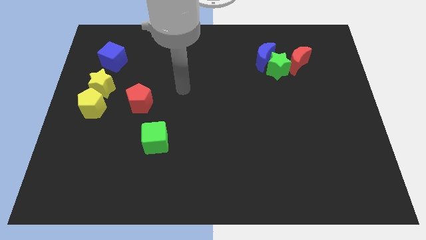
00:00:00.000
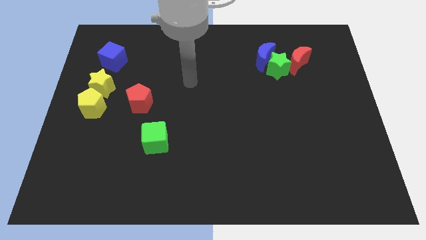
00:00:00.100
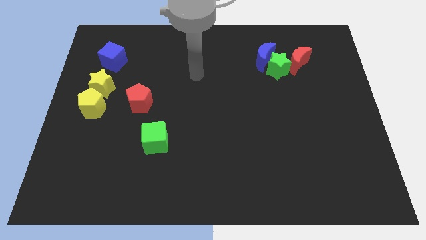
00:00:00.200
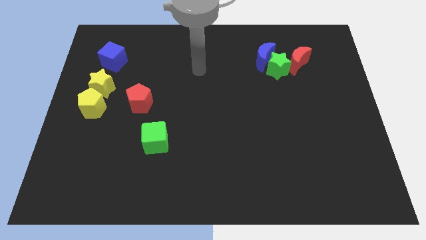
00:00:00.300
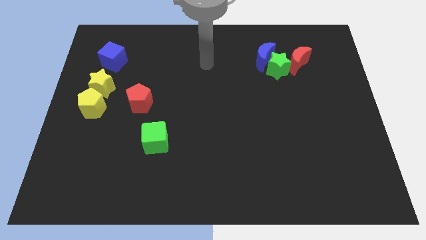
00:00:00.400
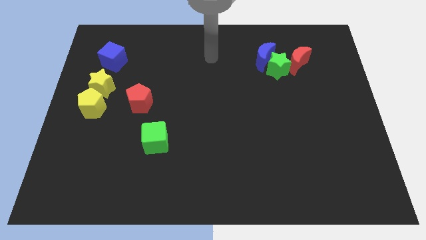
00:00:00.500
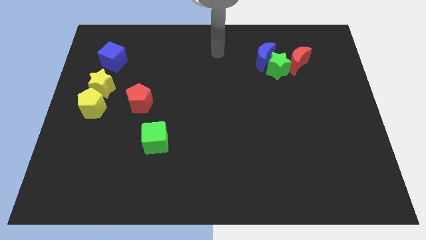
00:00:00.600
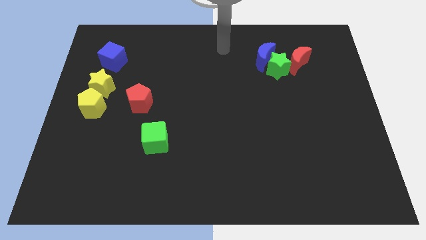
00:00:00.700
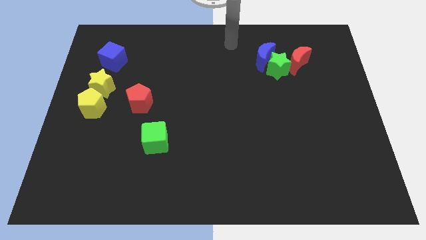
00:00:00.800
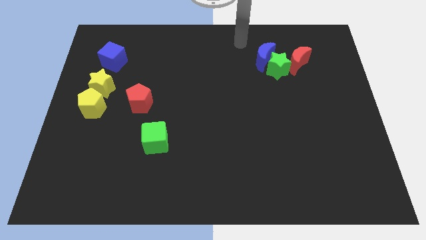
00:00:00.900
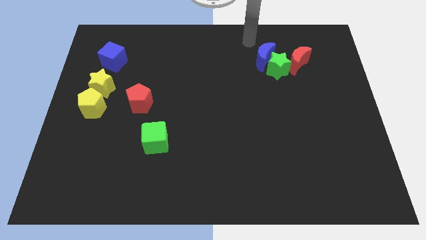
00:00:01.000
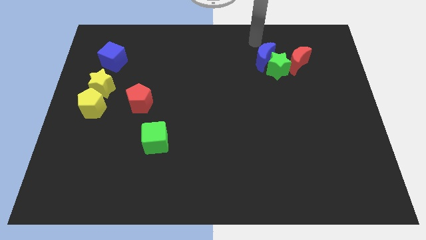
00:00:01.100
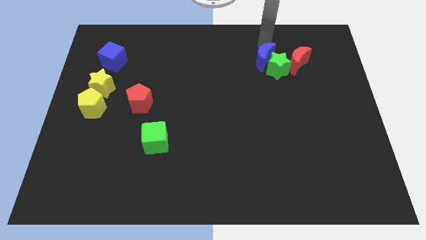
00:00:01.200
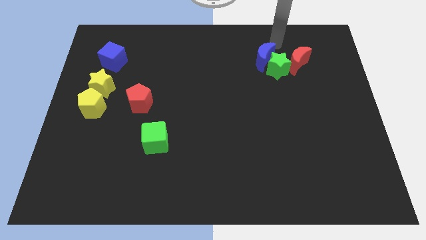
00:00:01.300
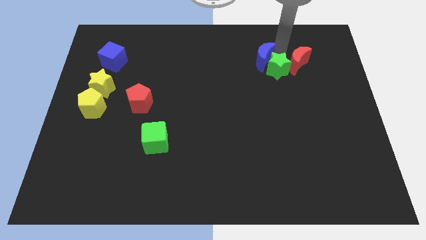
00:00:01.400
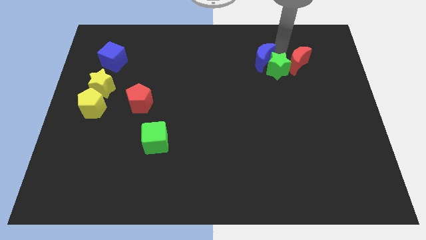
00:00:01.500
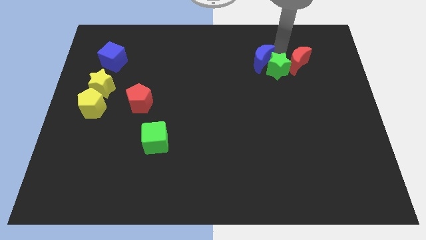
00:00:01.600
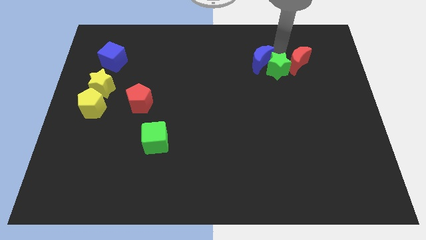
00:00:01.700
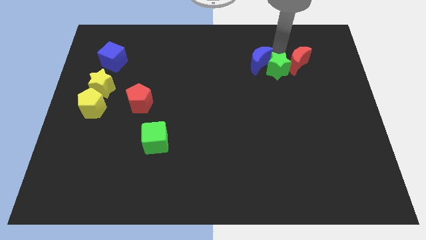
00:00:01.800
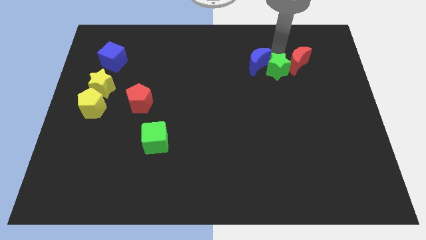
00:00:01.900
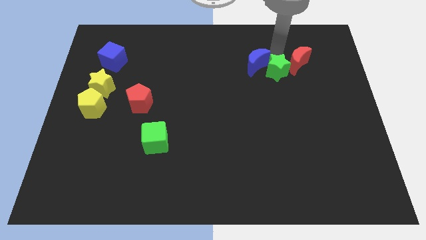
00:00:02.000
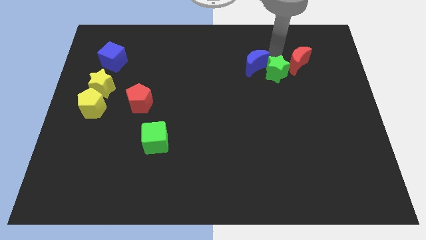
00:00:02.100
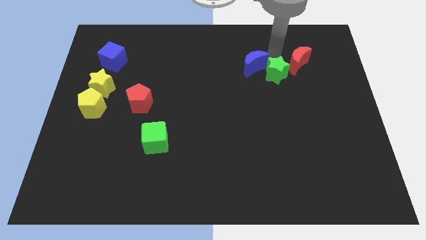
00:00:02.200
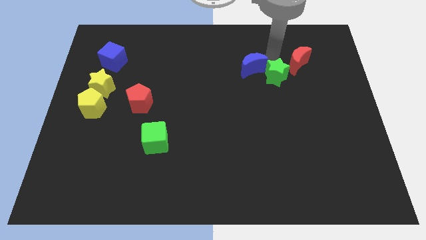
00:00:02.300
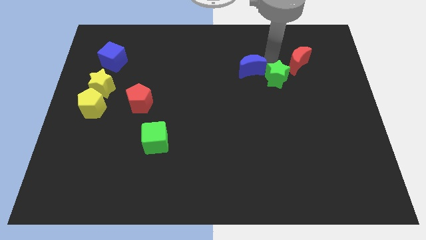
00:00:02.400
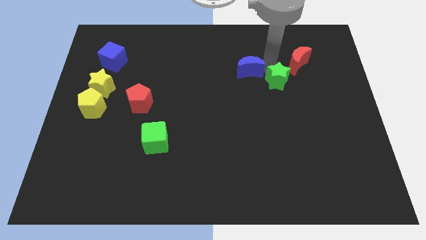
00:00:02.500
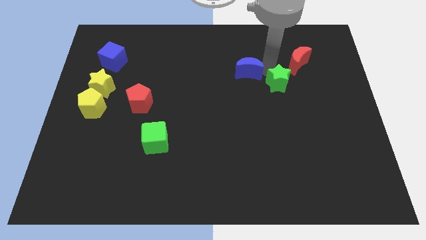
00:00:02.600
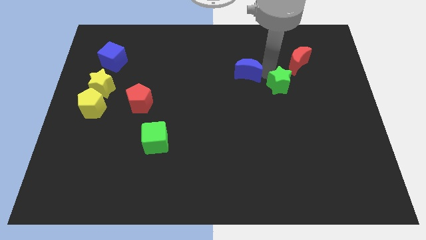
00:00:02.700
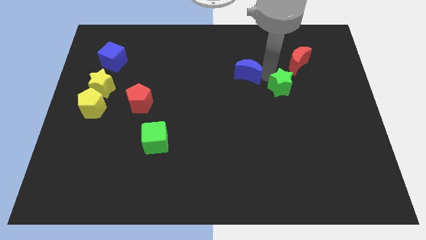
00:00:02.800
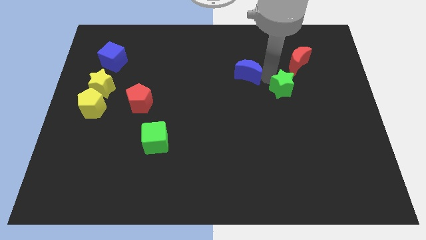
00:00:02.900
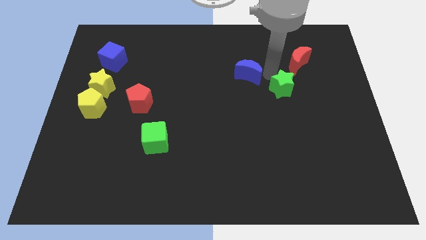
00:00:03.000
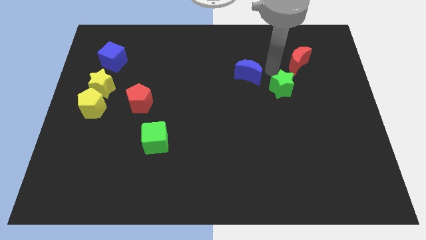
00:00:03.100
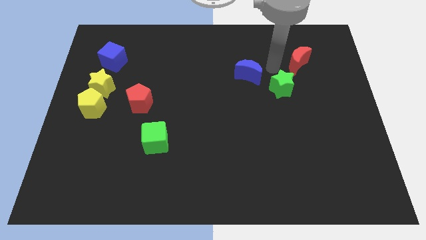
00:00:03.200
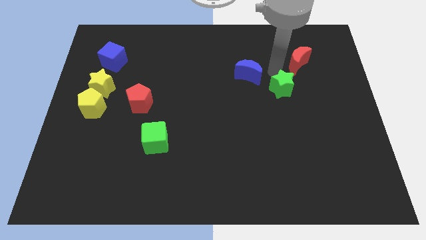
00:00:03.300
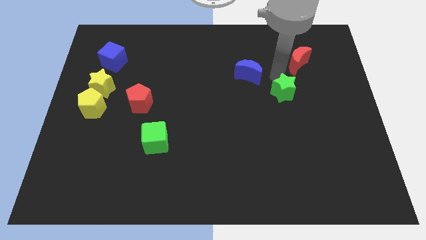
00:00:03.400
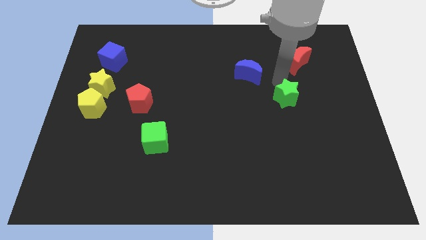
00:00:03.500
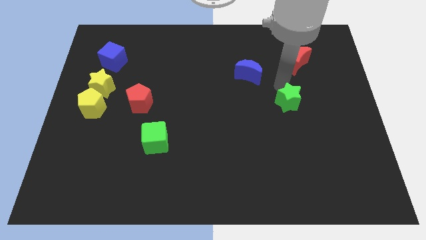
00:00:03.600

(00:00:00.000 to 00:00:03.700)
move the green star away from the blue moon and red moon

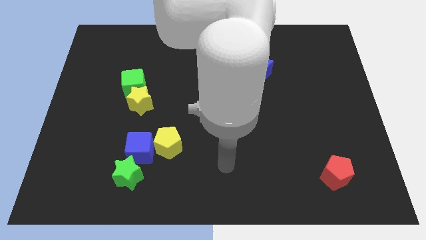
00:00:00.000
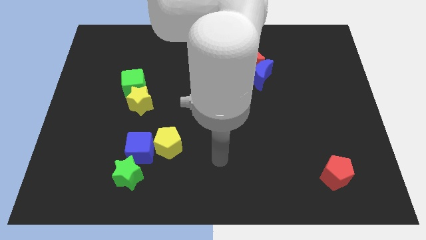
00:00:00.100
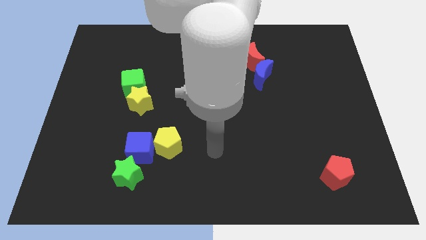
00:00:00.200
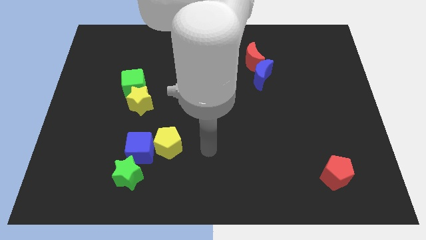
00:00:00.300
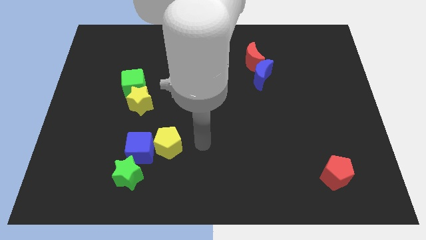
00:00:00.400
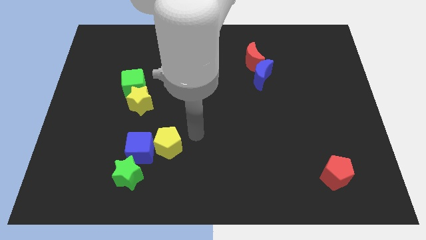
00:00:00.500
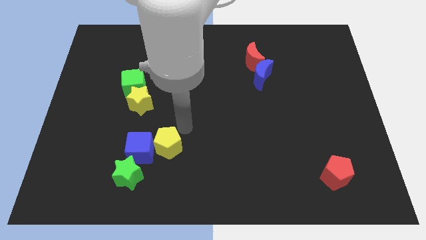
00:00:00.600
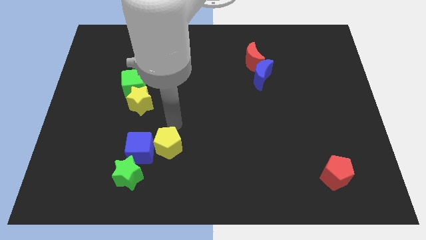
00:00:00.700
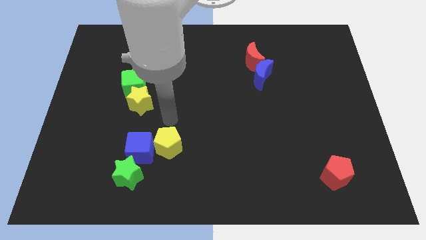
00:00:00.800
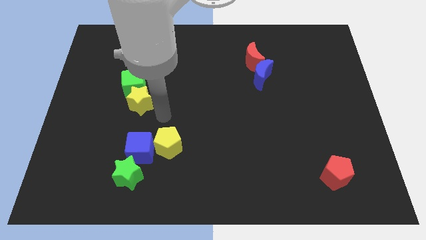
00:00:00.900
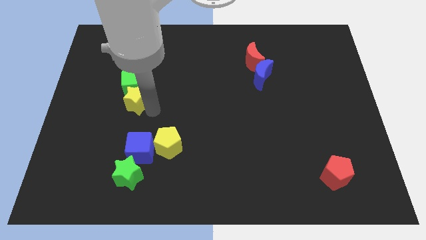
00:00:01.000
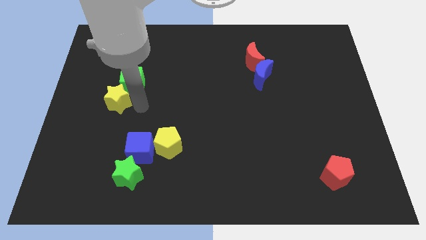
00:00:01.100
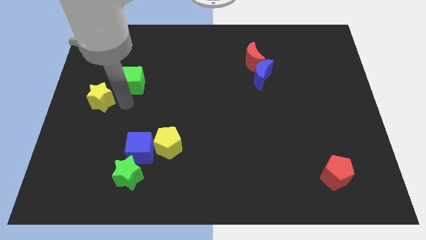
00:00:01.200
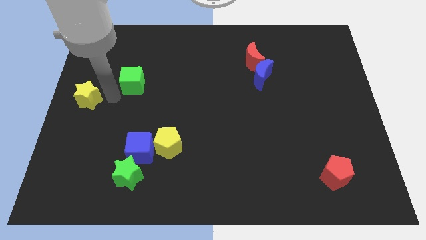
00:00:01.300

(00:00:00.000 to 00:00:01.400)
pull the green cube apart from the yellow star

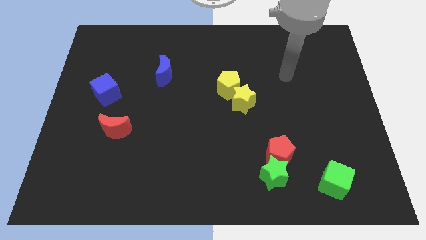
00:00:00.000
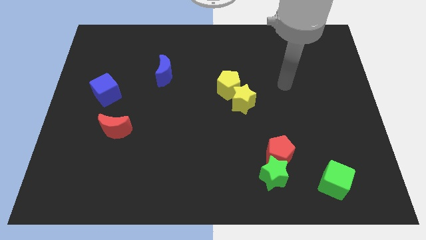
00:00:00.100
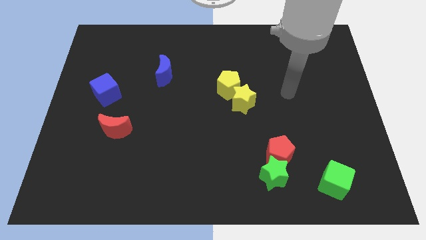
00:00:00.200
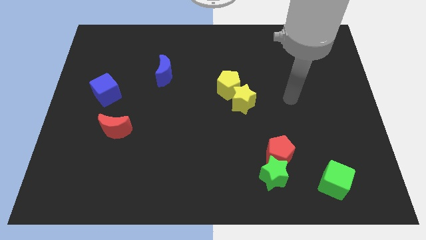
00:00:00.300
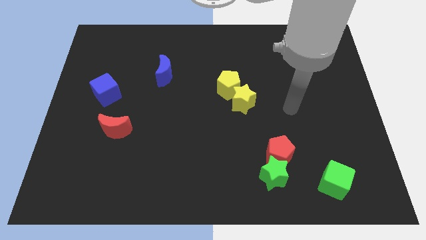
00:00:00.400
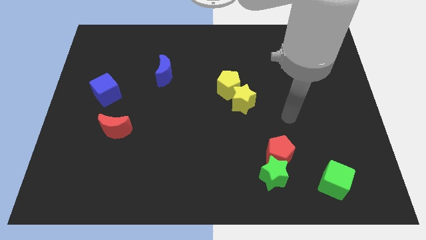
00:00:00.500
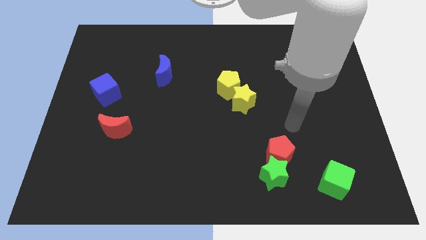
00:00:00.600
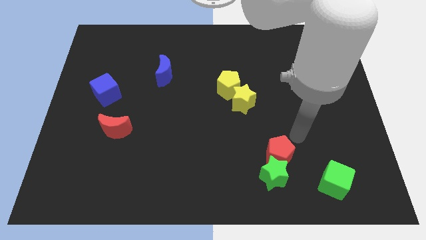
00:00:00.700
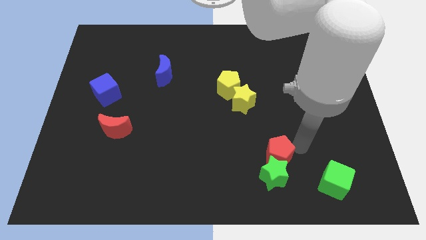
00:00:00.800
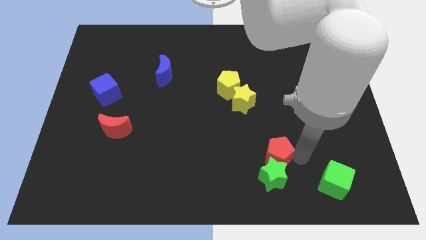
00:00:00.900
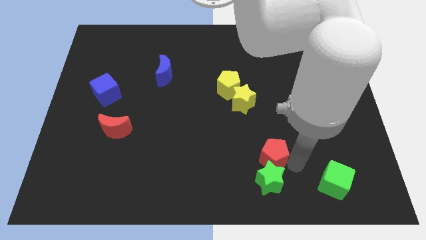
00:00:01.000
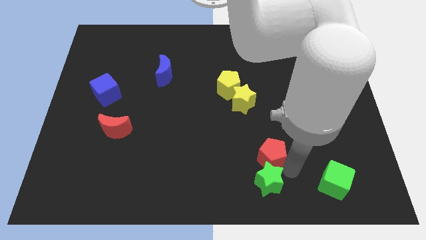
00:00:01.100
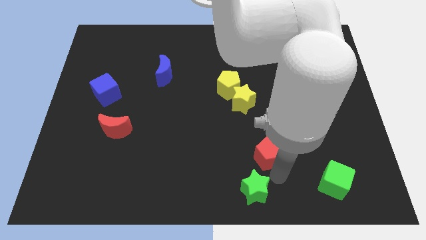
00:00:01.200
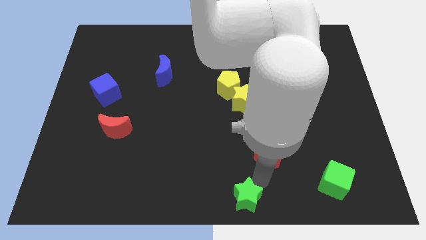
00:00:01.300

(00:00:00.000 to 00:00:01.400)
move the red pentagon away from the green star

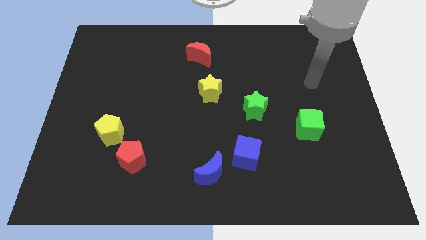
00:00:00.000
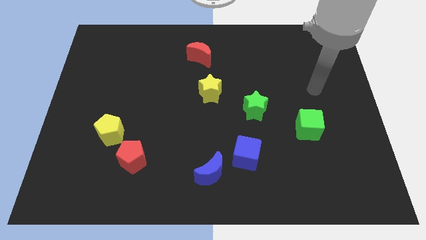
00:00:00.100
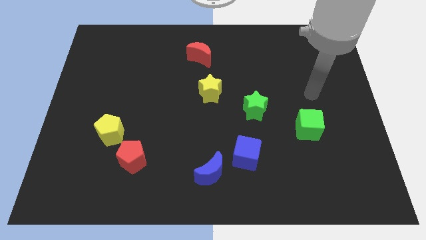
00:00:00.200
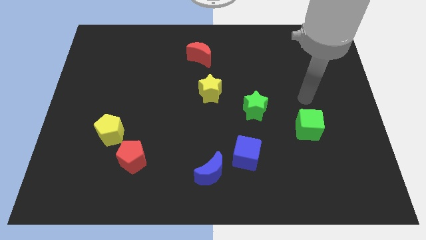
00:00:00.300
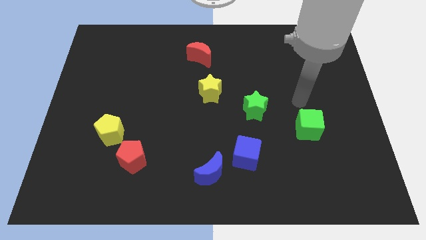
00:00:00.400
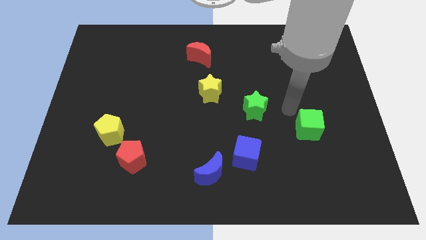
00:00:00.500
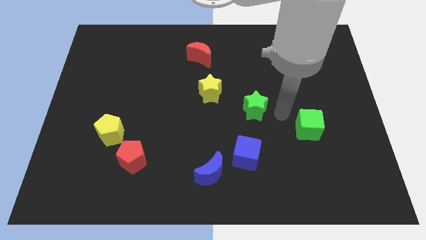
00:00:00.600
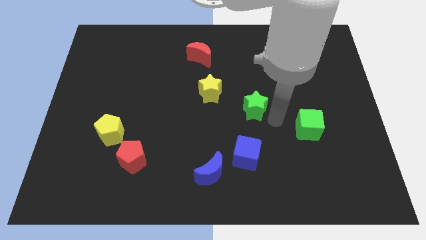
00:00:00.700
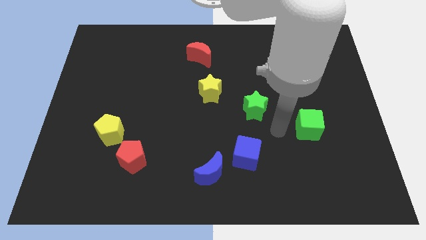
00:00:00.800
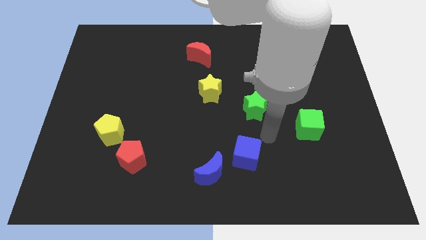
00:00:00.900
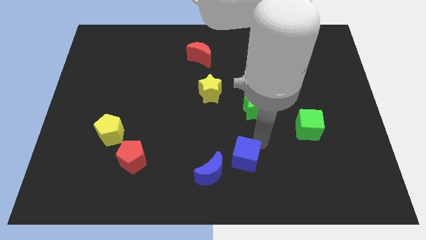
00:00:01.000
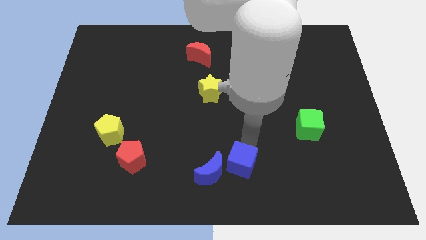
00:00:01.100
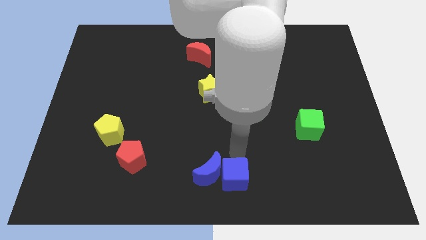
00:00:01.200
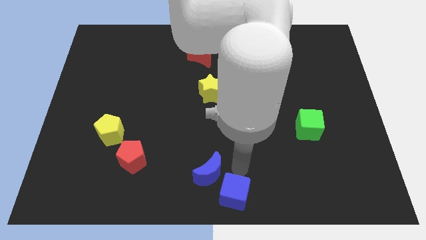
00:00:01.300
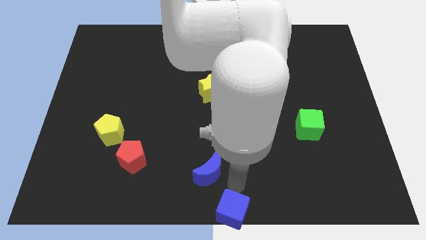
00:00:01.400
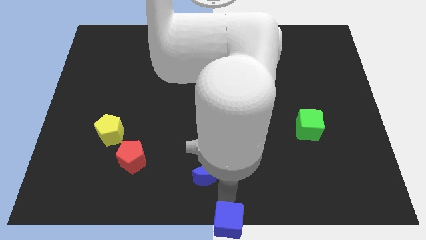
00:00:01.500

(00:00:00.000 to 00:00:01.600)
separate the blue moon from the blue cube

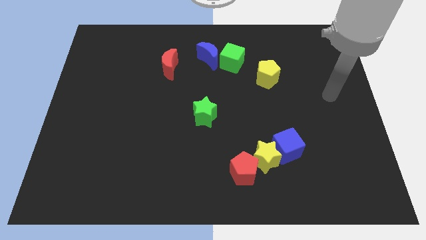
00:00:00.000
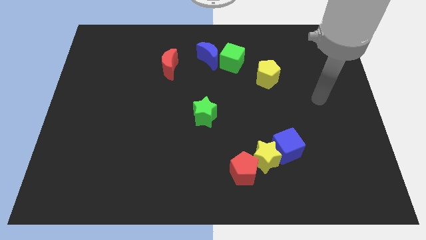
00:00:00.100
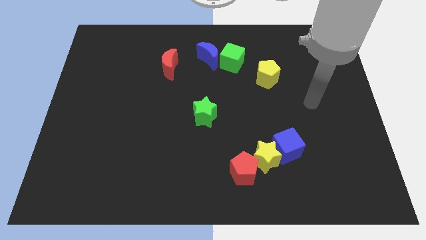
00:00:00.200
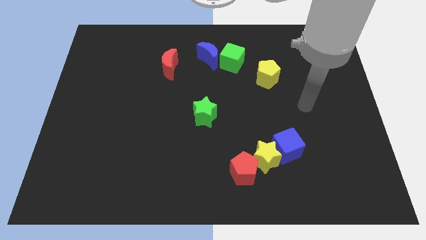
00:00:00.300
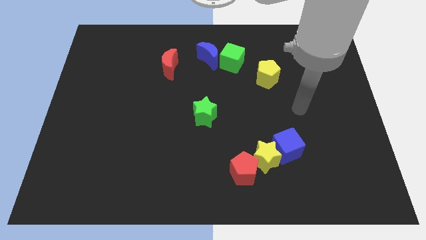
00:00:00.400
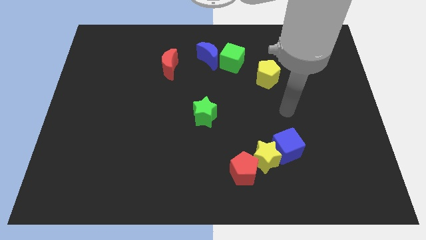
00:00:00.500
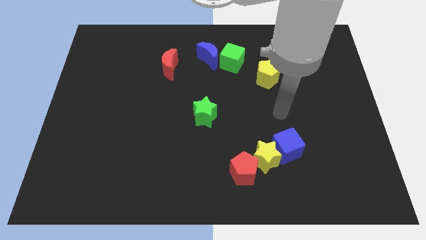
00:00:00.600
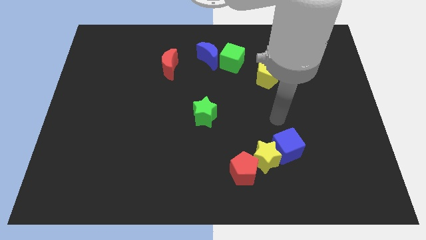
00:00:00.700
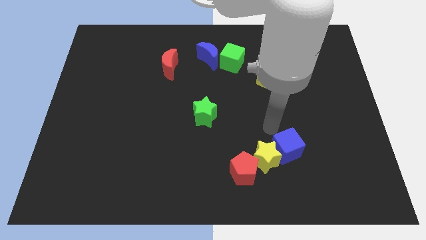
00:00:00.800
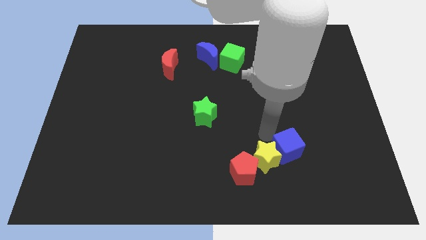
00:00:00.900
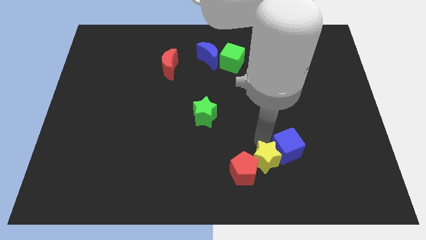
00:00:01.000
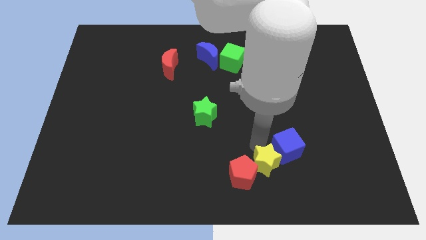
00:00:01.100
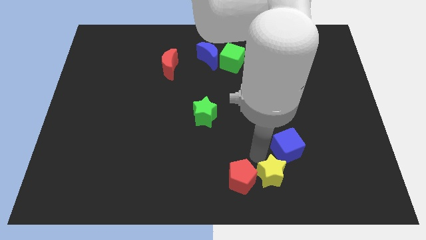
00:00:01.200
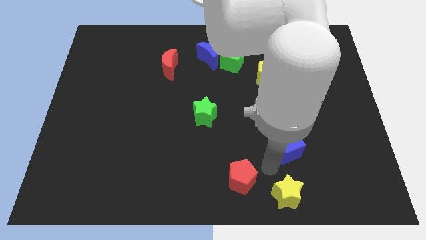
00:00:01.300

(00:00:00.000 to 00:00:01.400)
pull the blue cube apart from the yellow star
